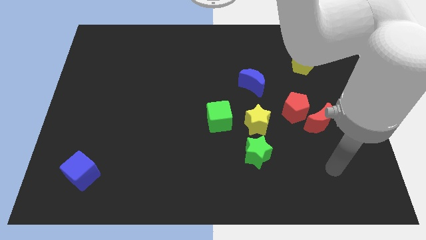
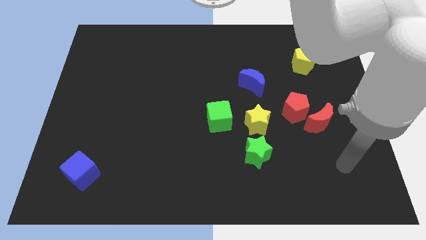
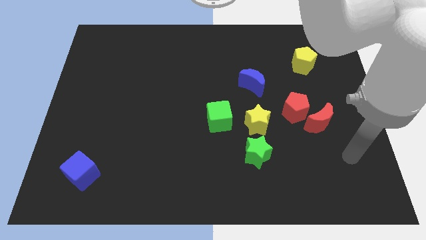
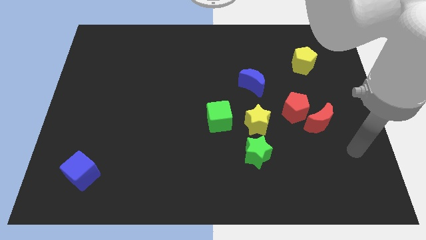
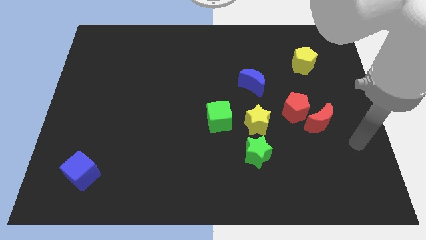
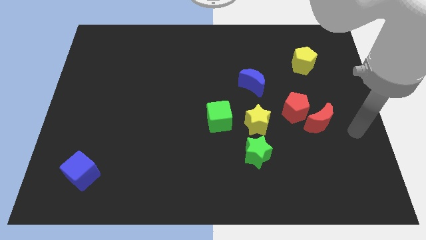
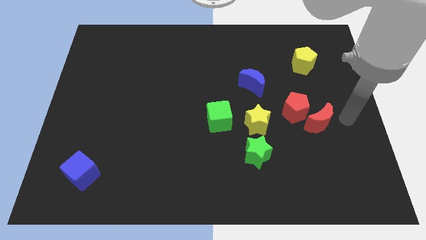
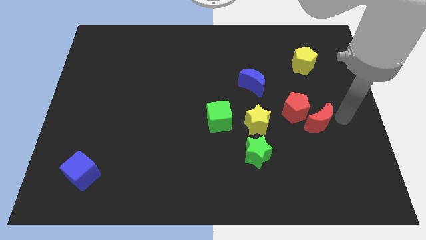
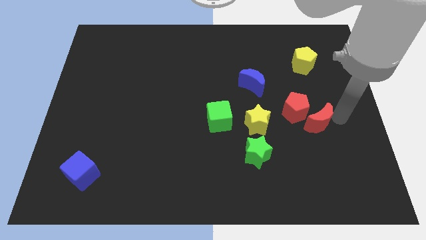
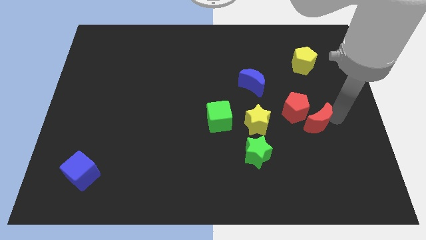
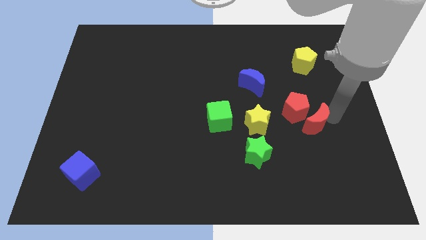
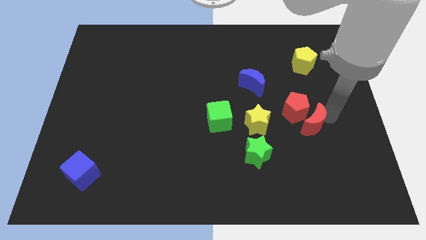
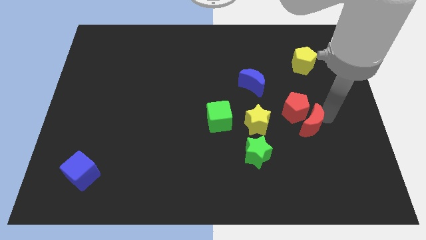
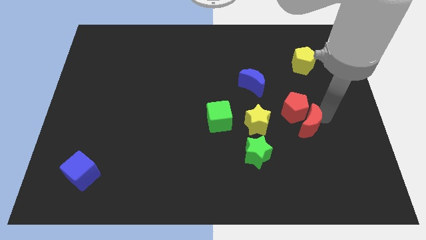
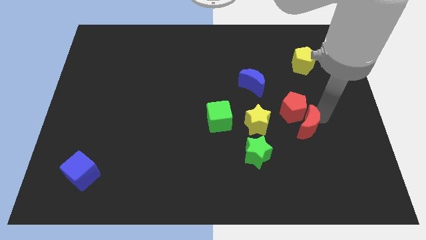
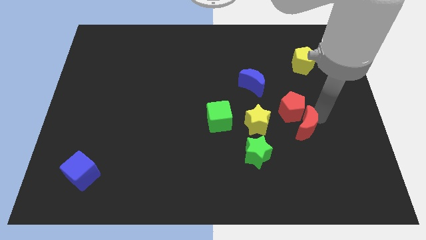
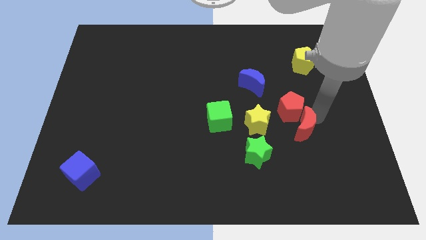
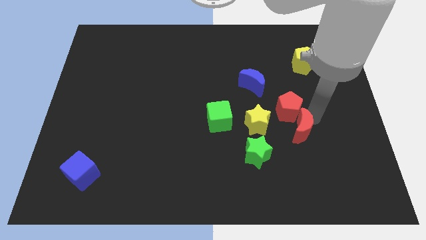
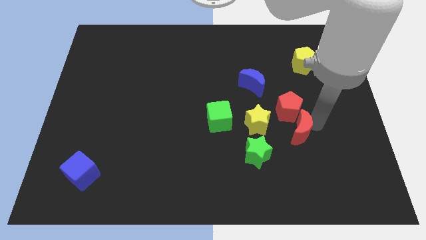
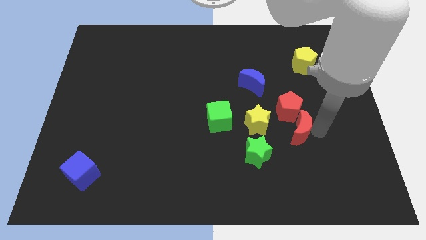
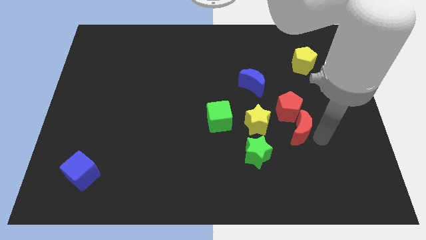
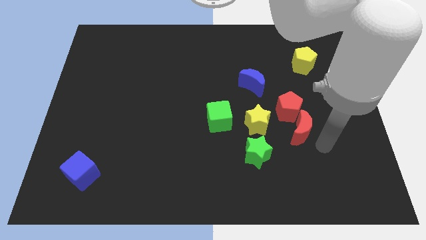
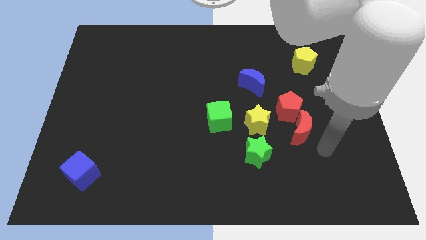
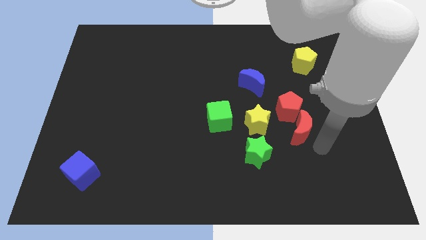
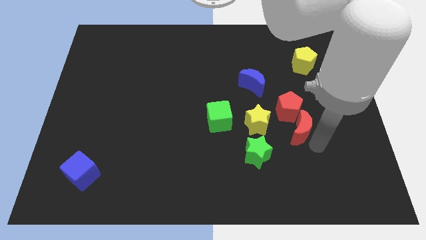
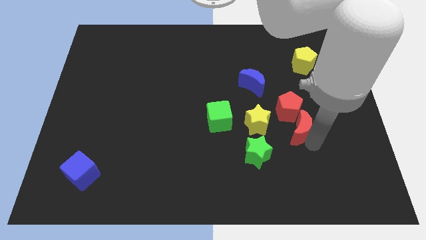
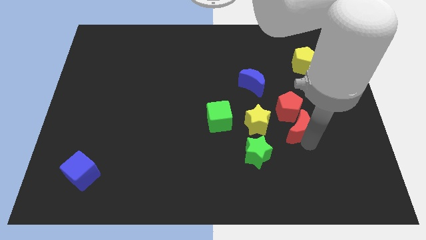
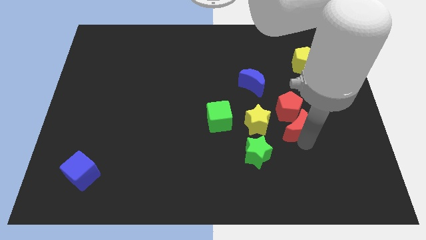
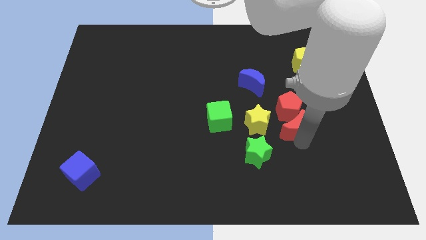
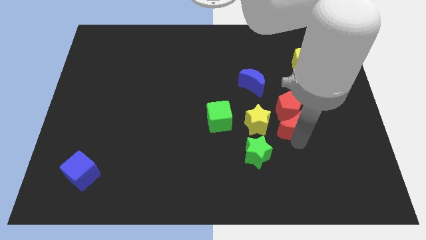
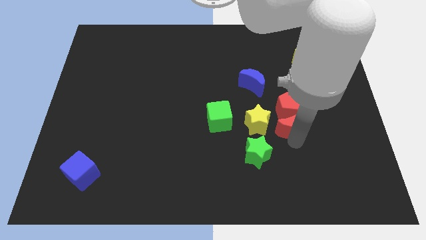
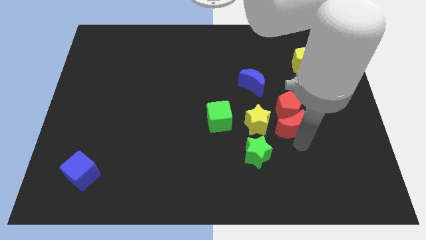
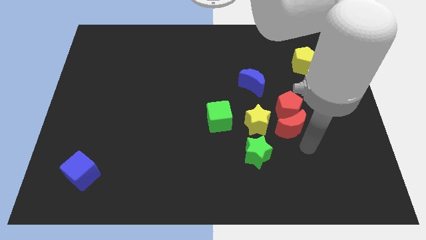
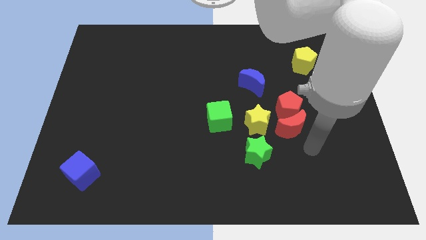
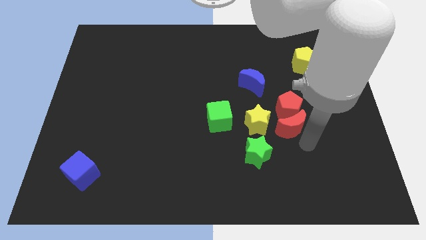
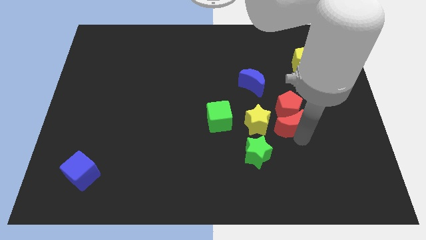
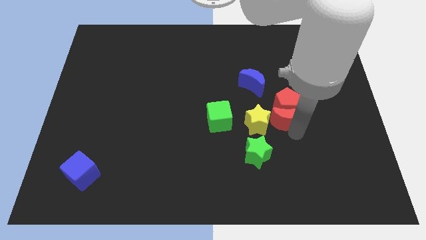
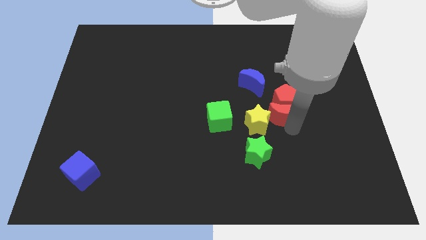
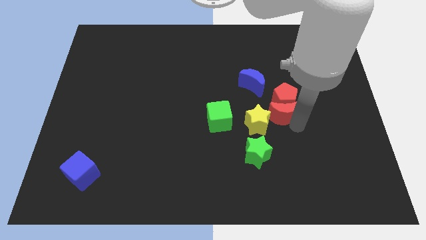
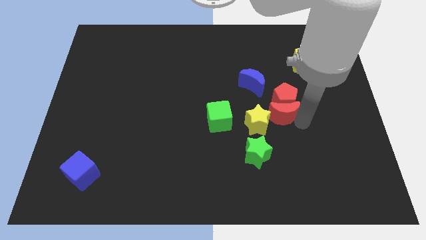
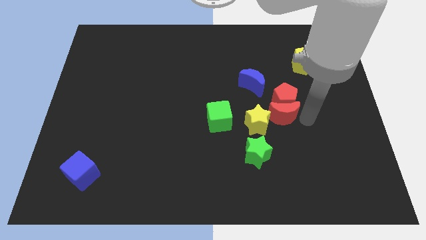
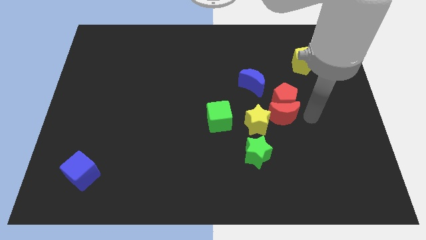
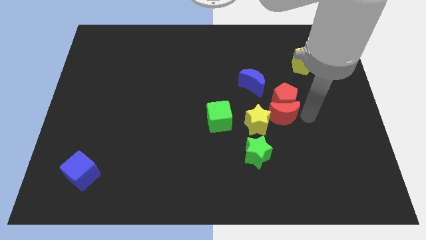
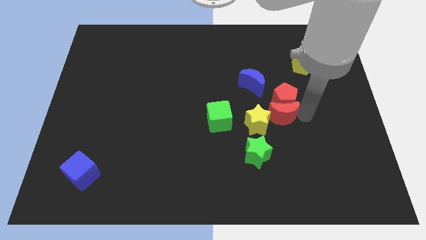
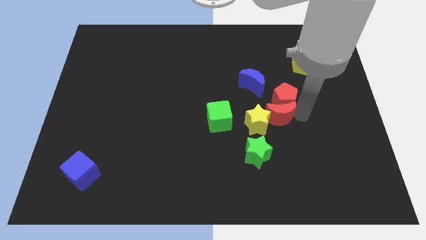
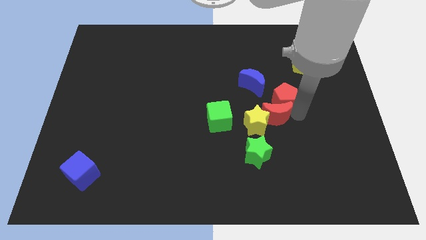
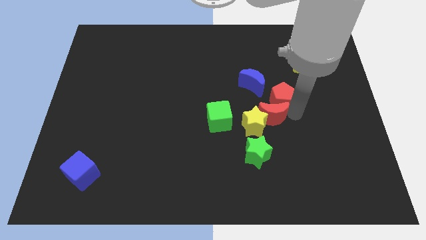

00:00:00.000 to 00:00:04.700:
slide the red moon to the top of the green star

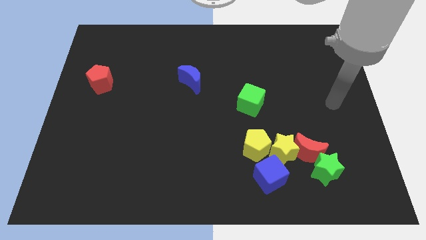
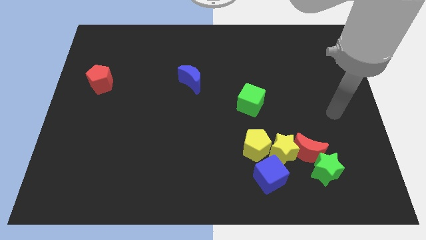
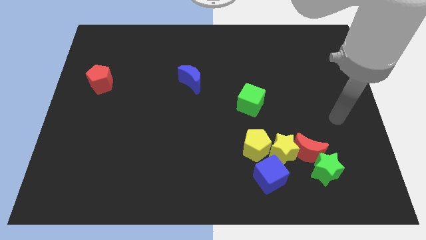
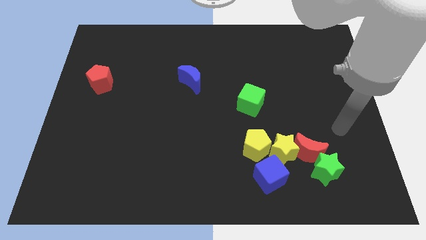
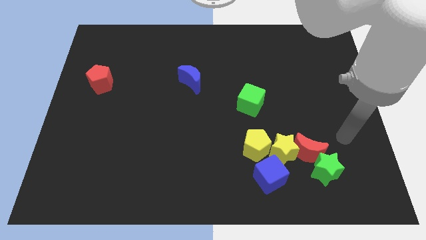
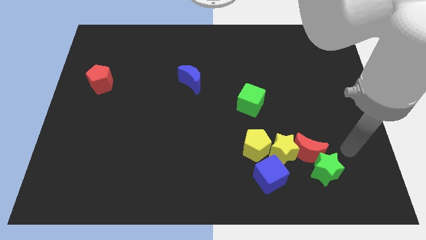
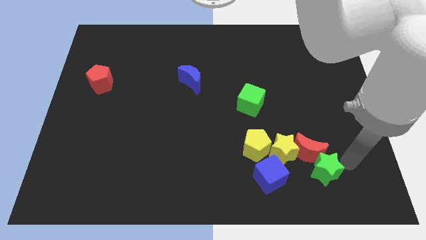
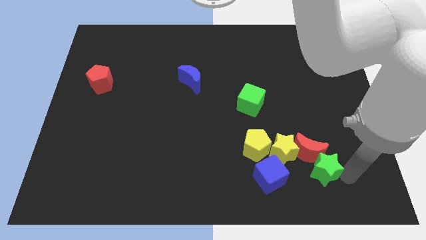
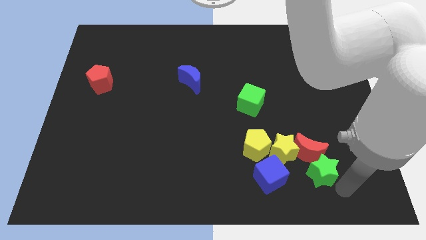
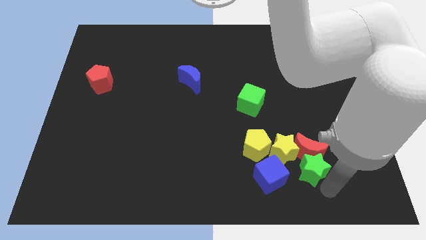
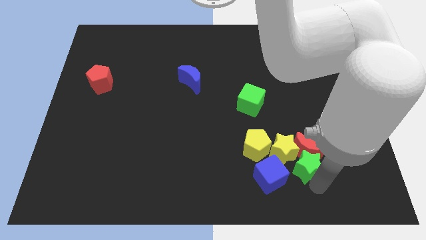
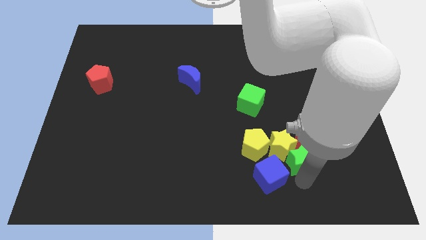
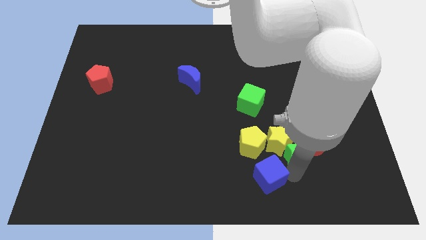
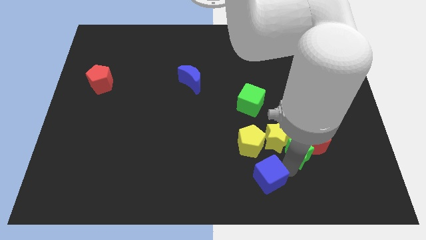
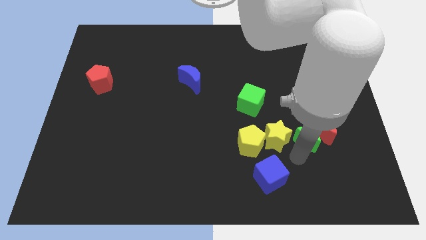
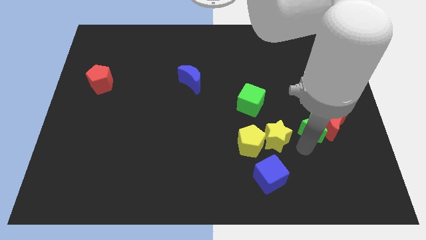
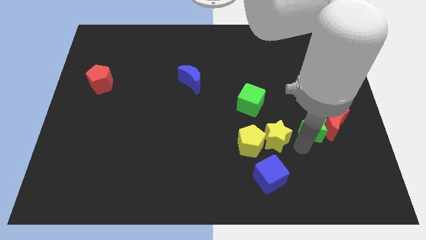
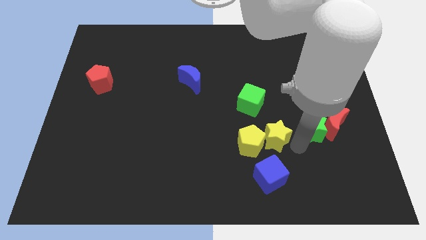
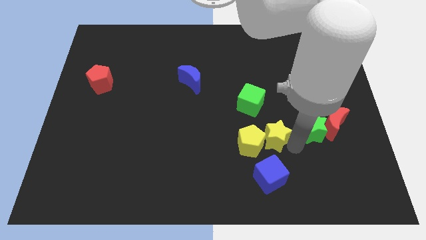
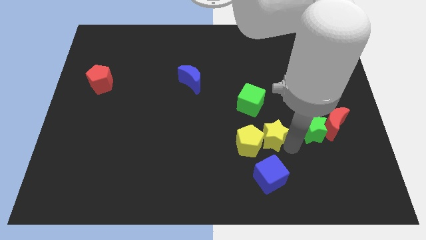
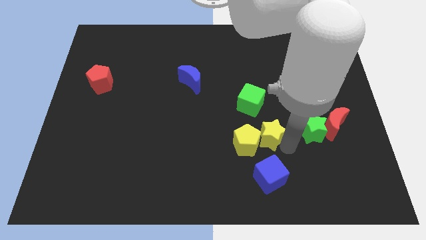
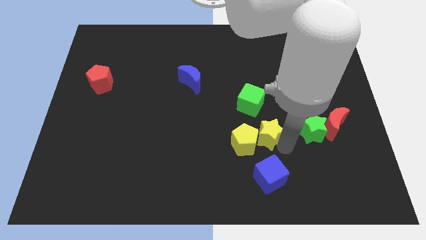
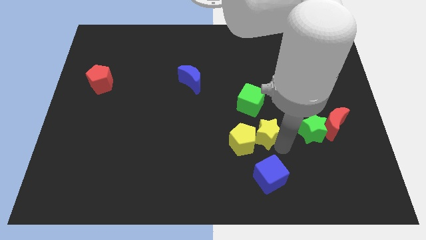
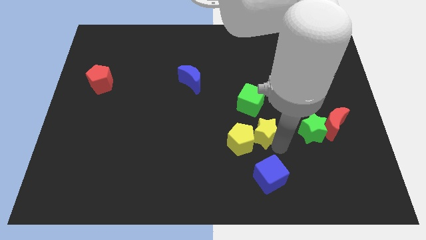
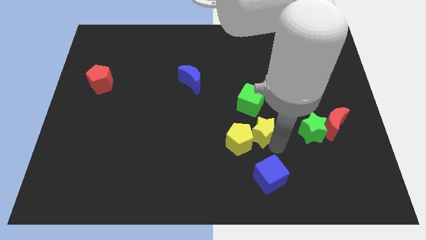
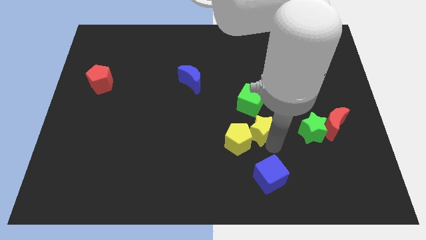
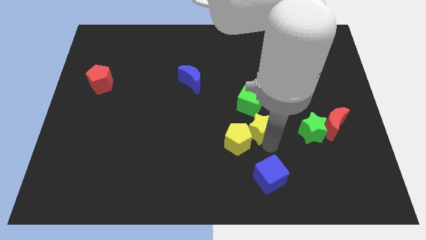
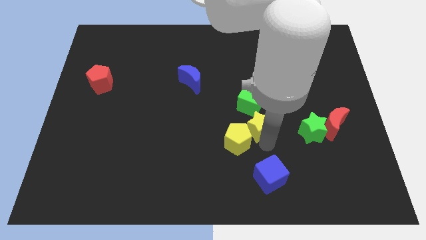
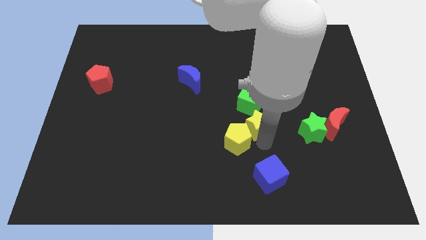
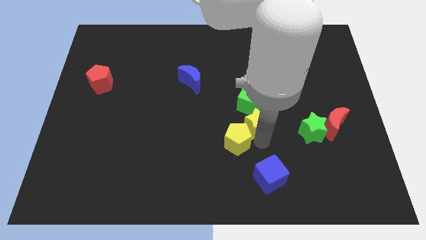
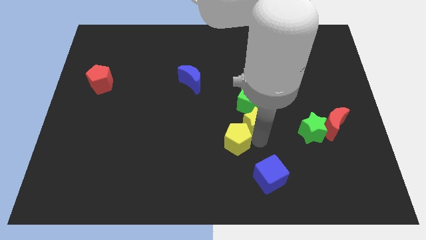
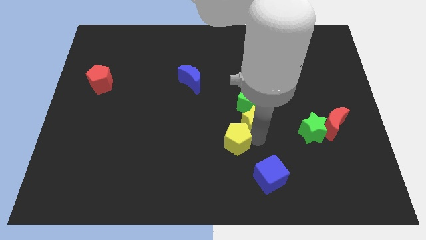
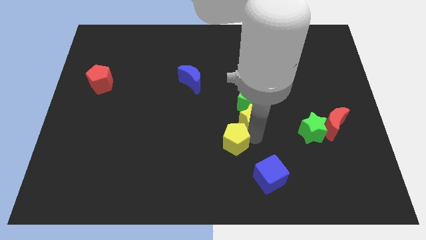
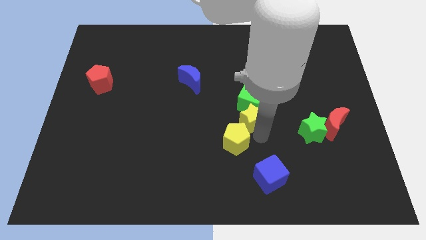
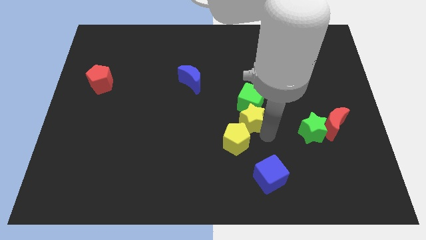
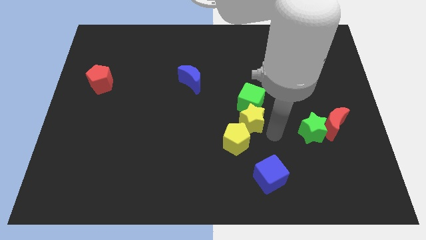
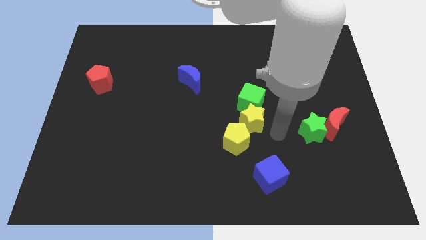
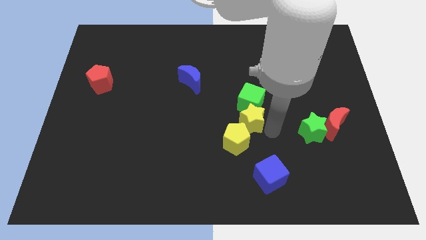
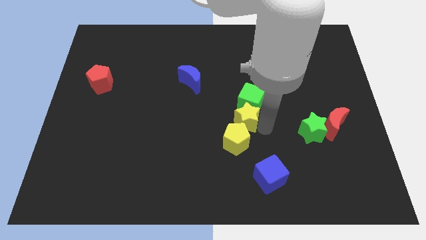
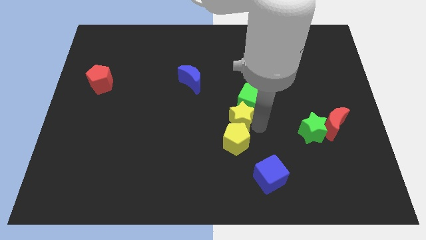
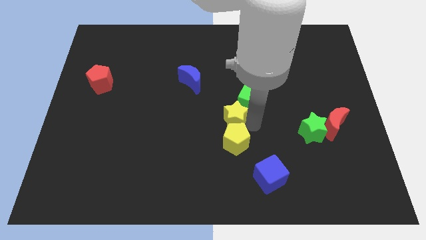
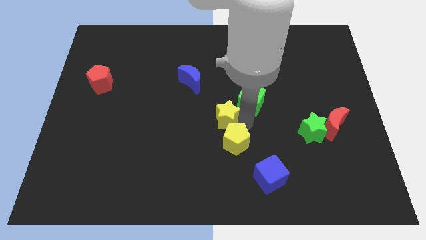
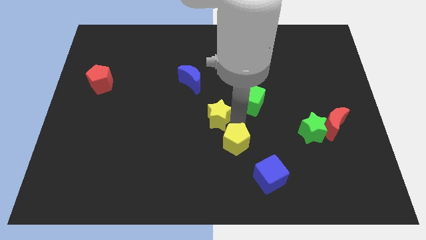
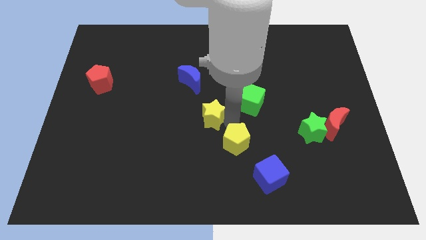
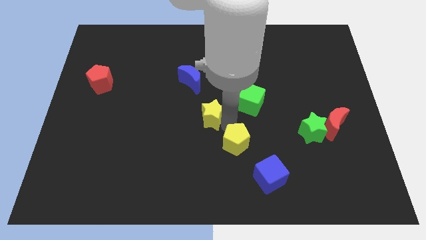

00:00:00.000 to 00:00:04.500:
put the yellow star to the bottom side of the blue moon
